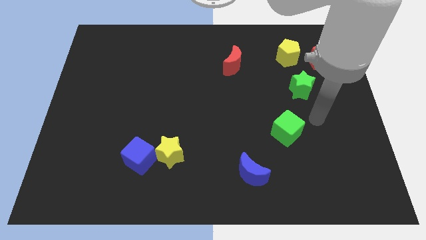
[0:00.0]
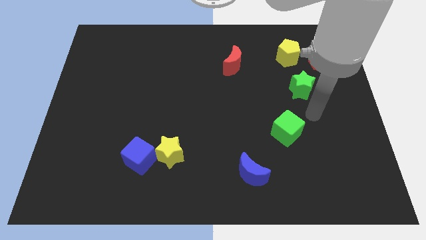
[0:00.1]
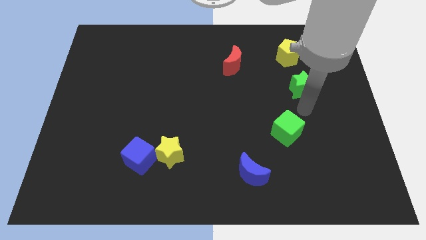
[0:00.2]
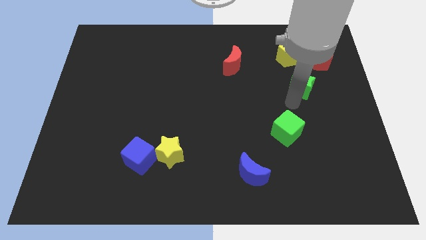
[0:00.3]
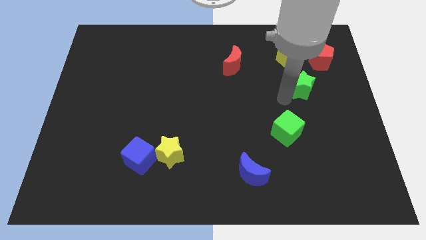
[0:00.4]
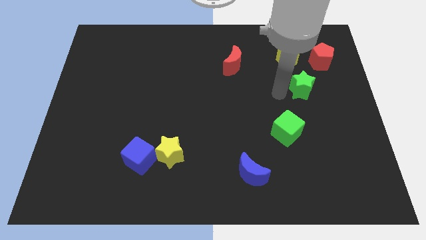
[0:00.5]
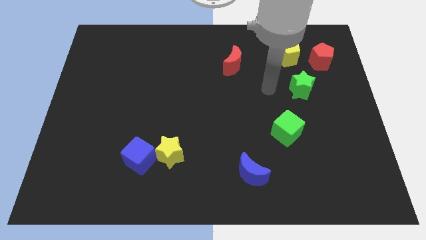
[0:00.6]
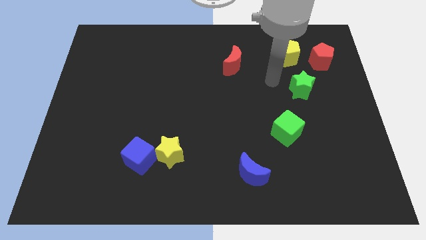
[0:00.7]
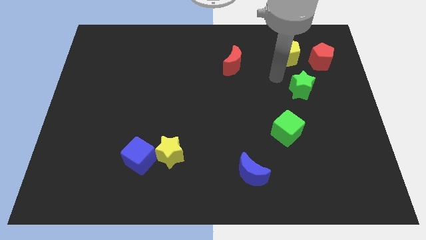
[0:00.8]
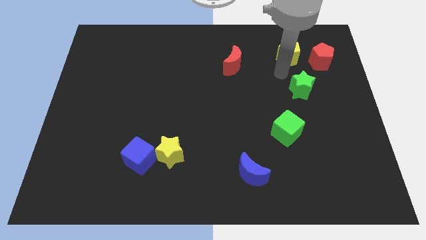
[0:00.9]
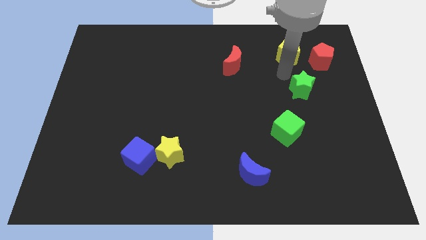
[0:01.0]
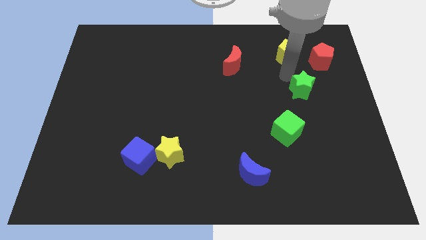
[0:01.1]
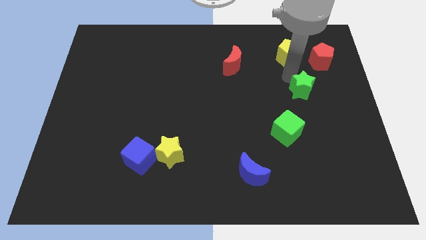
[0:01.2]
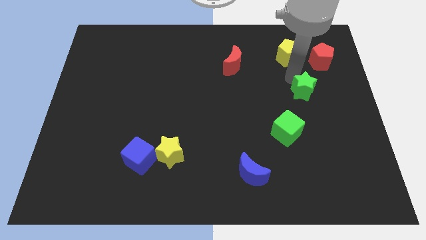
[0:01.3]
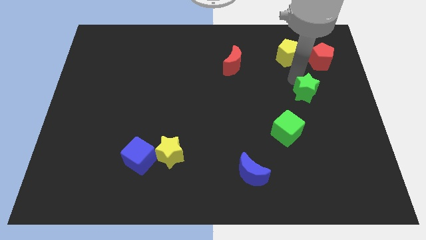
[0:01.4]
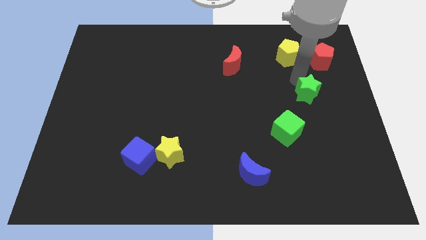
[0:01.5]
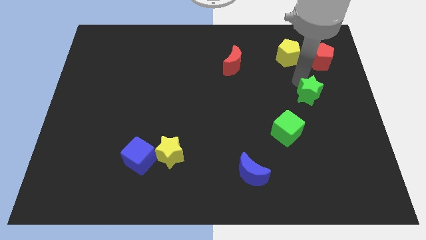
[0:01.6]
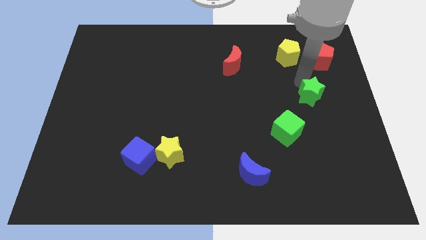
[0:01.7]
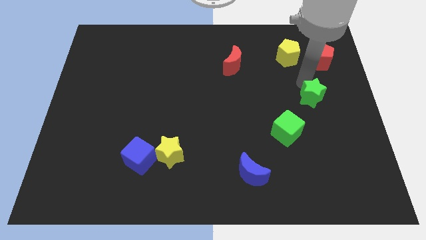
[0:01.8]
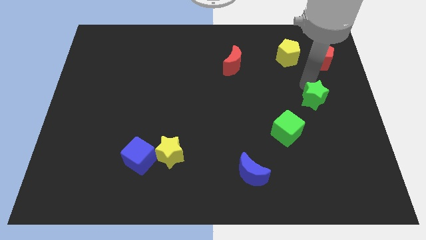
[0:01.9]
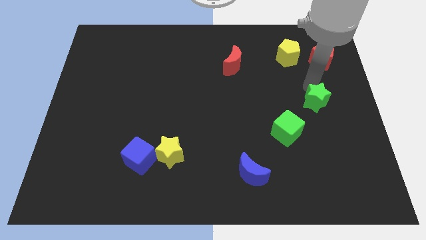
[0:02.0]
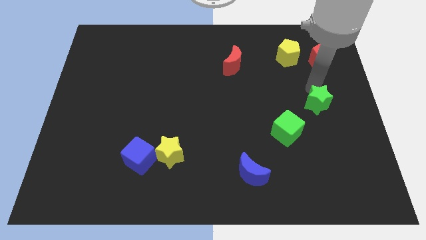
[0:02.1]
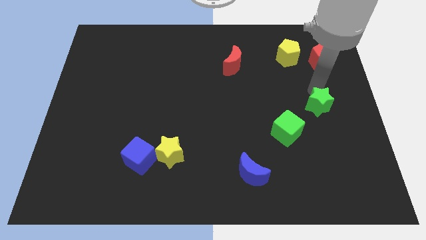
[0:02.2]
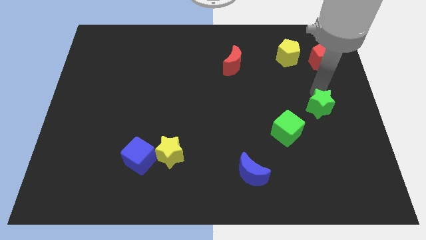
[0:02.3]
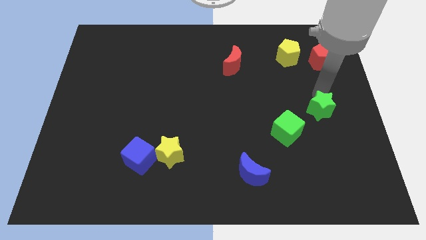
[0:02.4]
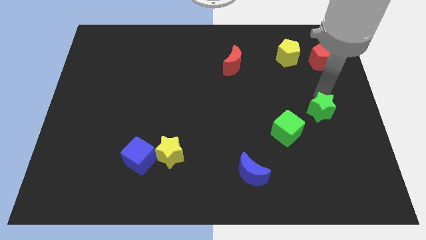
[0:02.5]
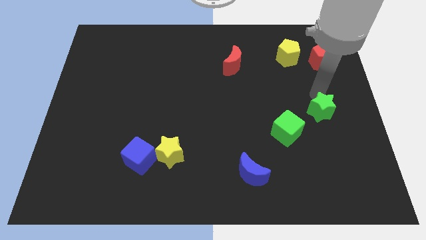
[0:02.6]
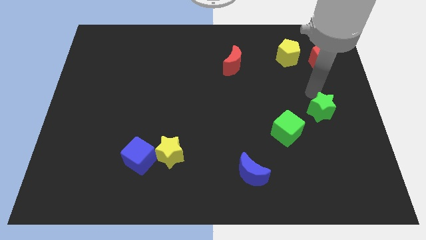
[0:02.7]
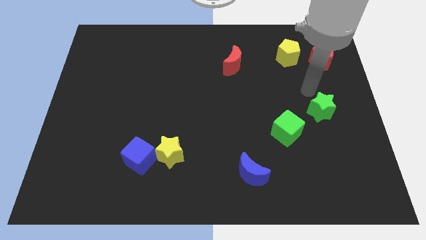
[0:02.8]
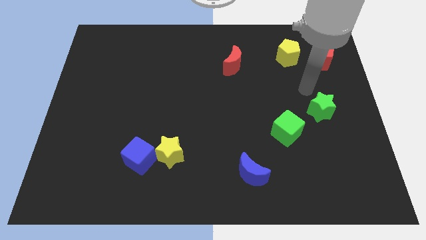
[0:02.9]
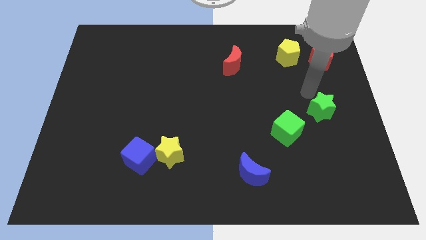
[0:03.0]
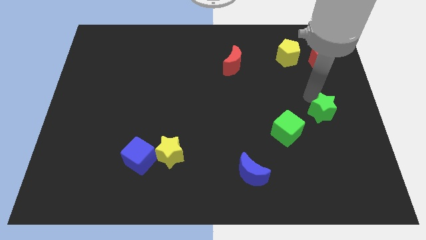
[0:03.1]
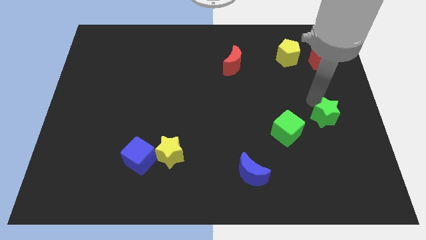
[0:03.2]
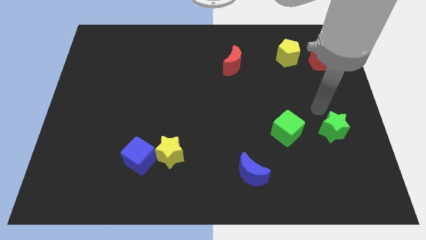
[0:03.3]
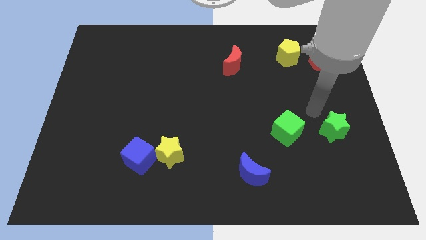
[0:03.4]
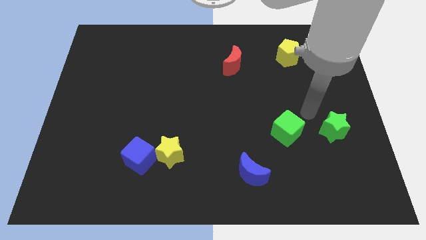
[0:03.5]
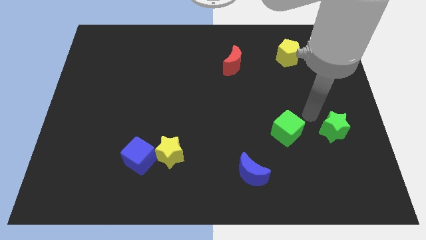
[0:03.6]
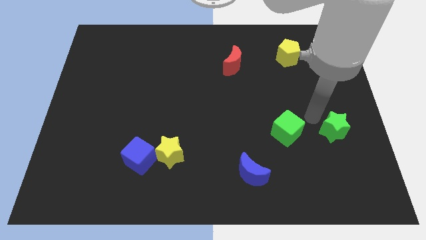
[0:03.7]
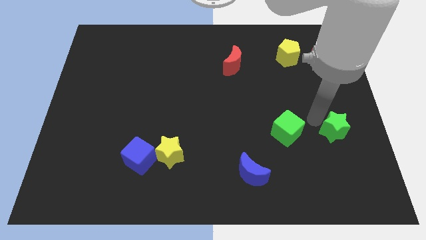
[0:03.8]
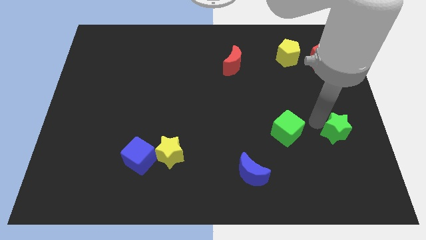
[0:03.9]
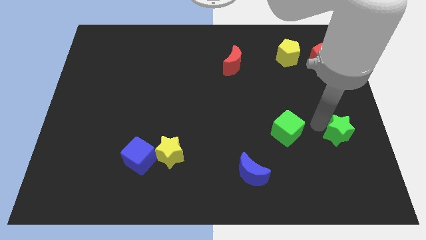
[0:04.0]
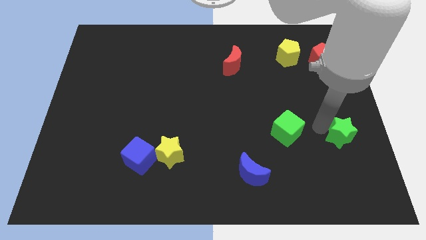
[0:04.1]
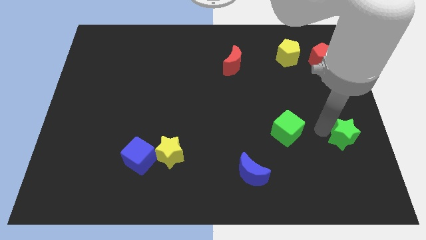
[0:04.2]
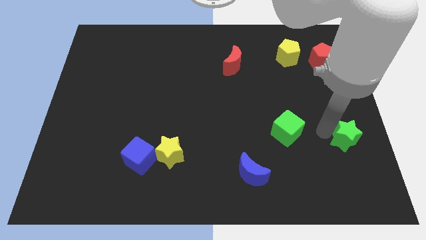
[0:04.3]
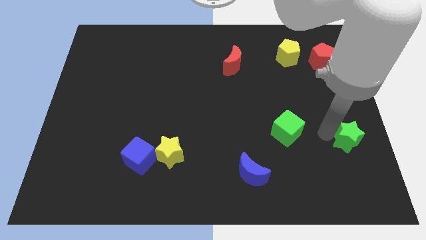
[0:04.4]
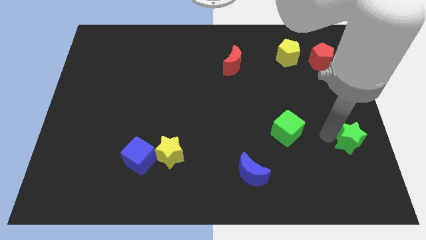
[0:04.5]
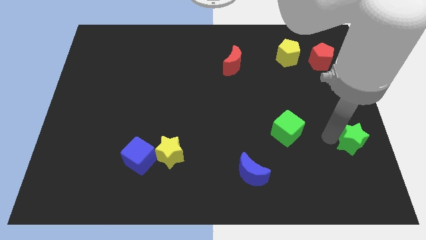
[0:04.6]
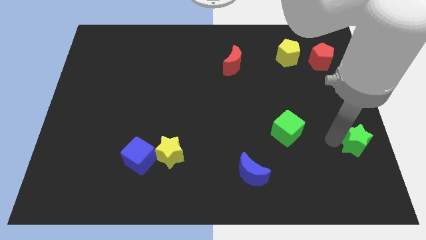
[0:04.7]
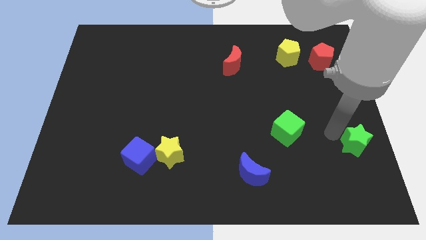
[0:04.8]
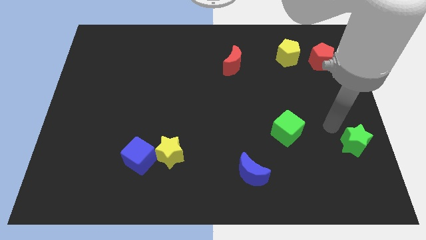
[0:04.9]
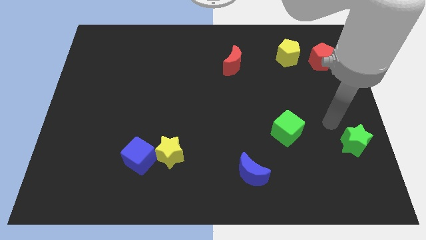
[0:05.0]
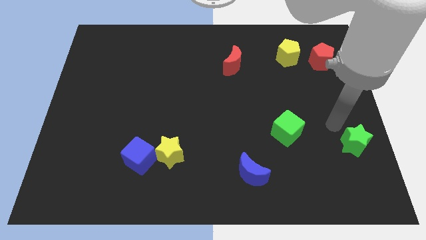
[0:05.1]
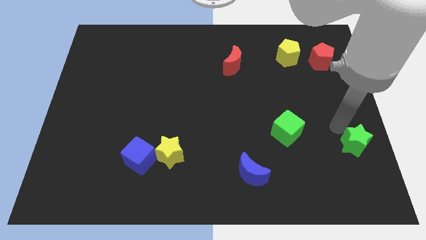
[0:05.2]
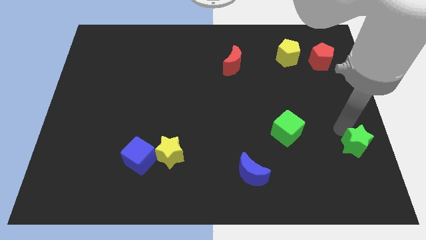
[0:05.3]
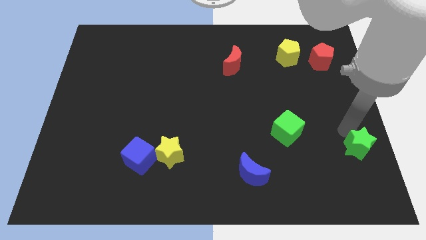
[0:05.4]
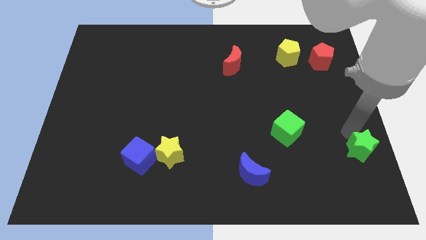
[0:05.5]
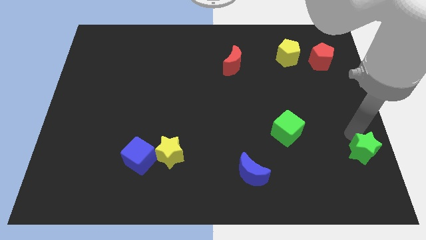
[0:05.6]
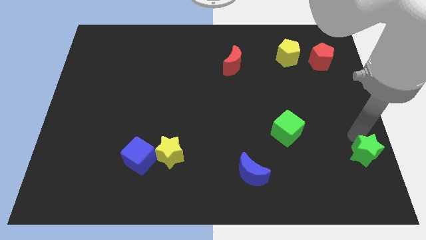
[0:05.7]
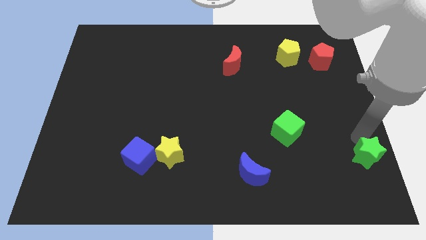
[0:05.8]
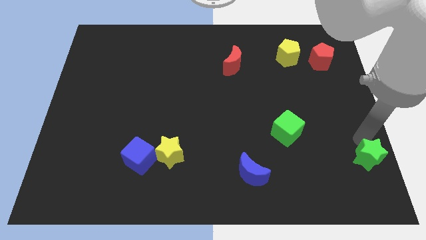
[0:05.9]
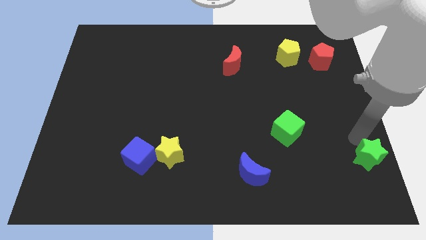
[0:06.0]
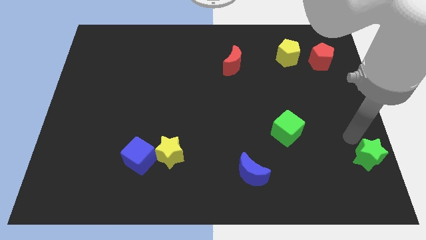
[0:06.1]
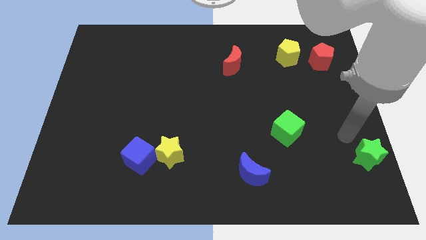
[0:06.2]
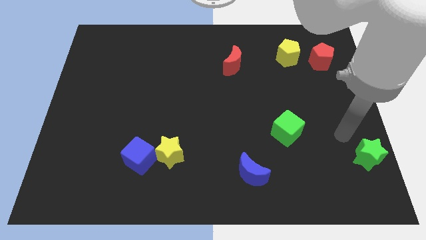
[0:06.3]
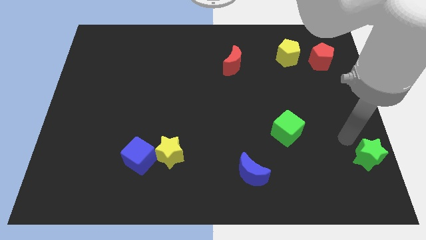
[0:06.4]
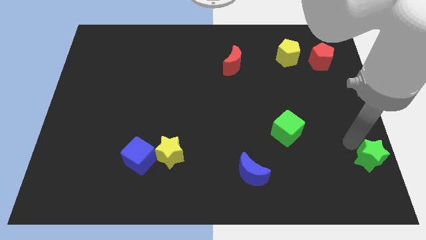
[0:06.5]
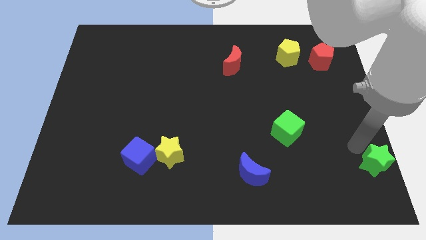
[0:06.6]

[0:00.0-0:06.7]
push the green star to the bottom right

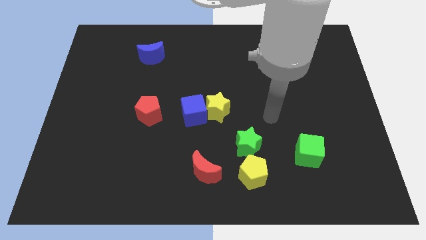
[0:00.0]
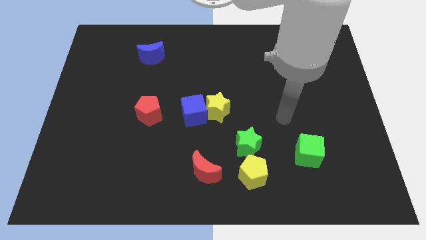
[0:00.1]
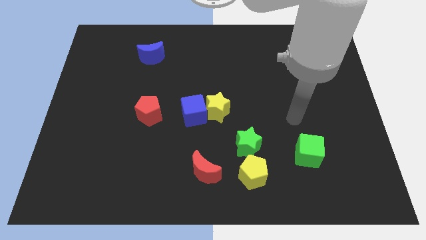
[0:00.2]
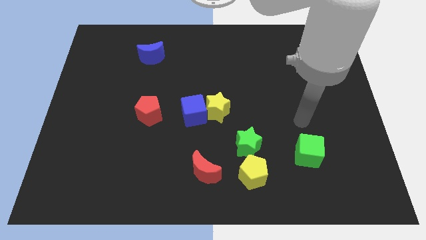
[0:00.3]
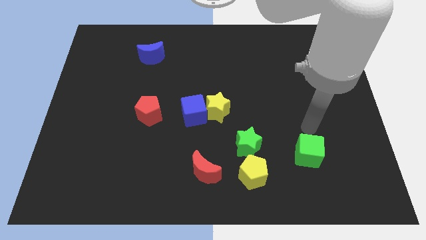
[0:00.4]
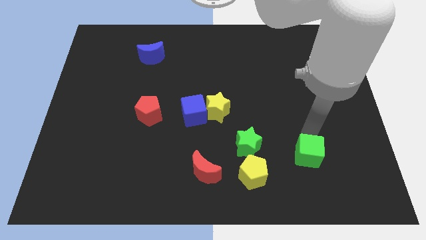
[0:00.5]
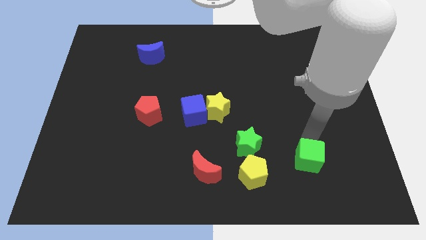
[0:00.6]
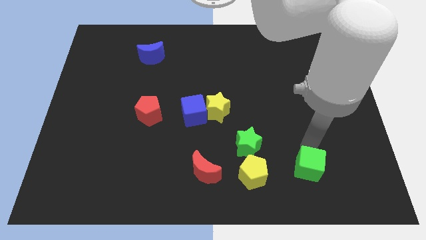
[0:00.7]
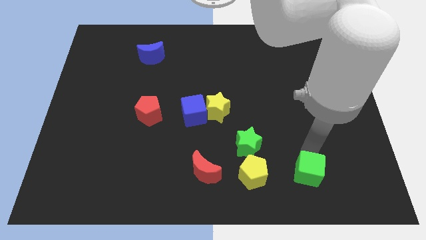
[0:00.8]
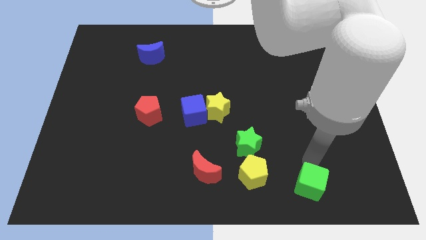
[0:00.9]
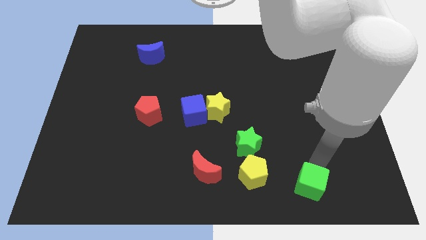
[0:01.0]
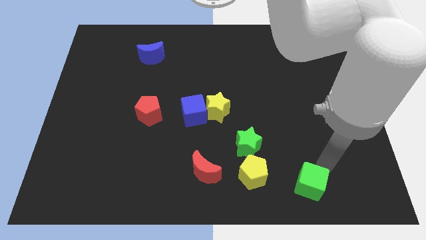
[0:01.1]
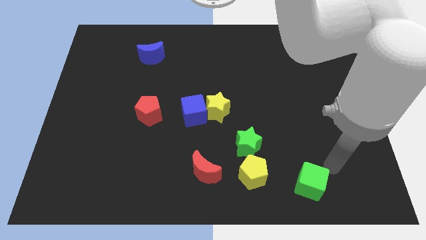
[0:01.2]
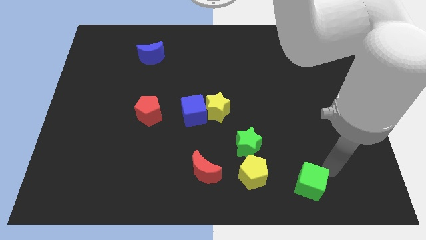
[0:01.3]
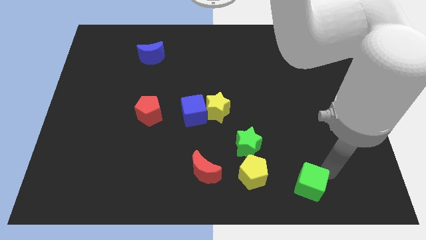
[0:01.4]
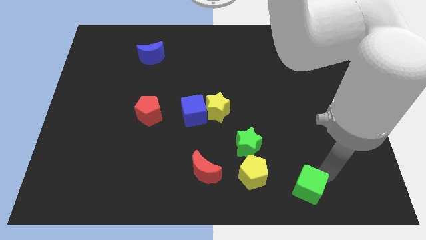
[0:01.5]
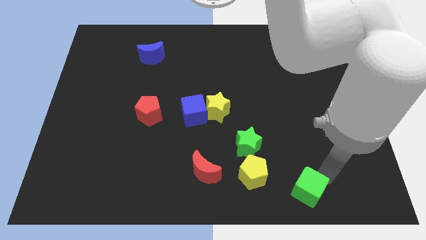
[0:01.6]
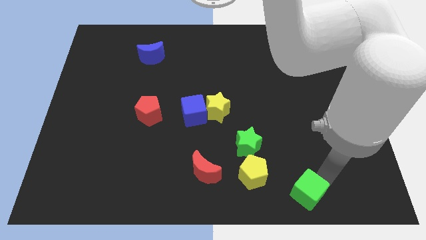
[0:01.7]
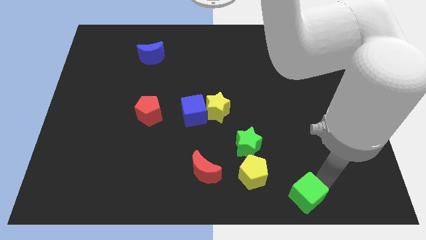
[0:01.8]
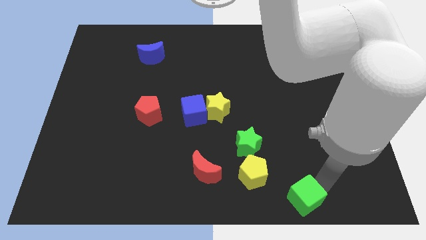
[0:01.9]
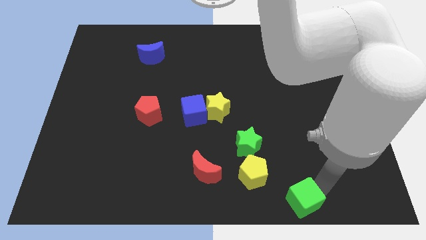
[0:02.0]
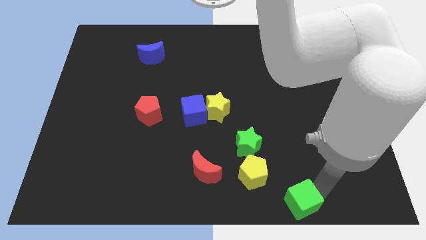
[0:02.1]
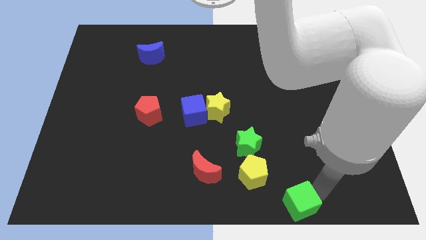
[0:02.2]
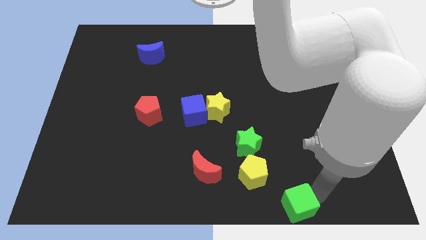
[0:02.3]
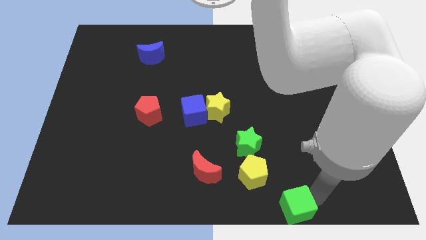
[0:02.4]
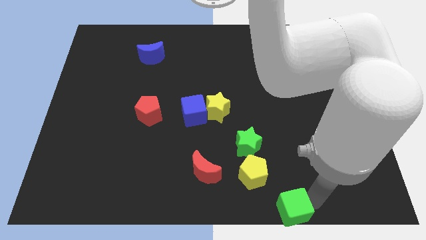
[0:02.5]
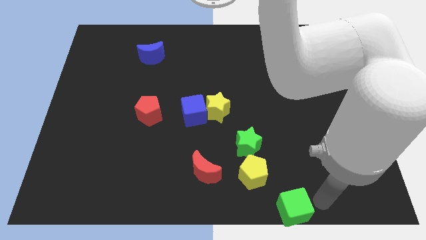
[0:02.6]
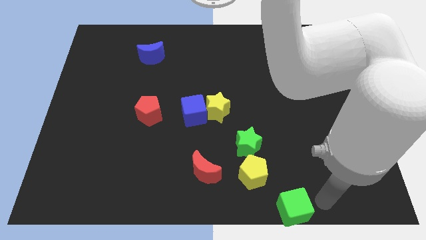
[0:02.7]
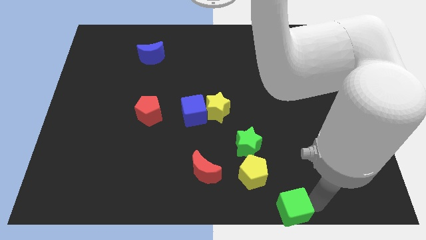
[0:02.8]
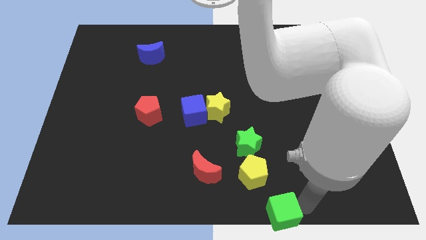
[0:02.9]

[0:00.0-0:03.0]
push the green cube to the bottom side
